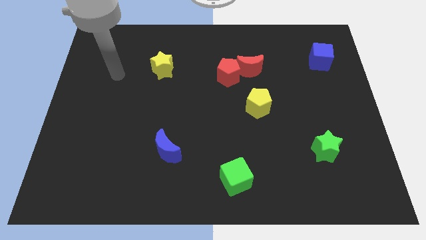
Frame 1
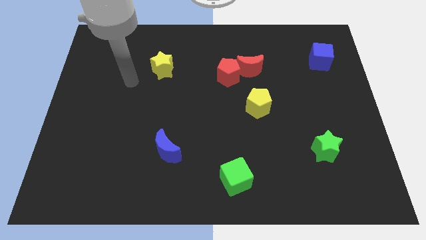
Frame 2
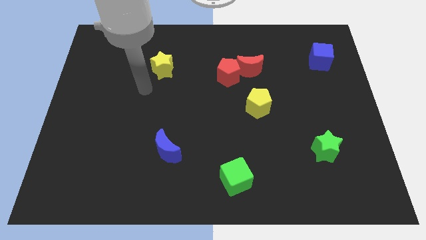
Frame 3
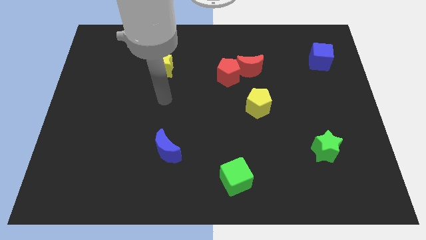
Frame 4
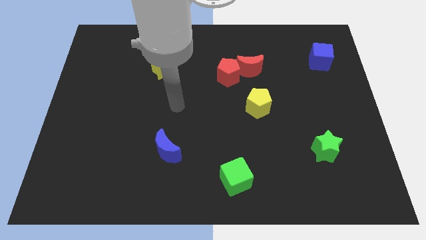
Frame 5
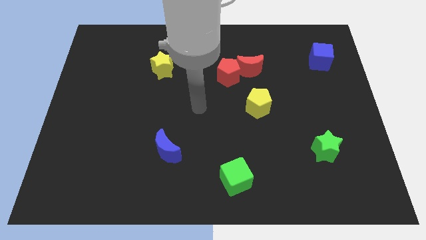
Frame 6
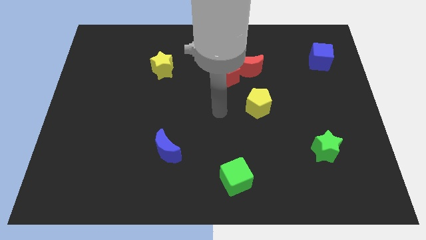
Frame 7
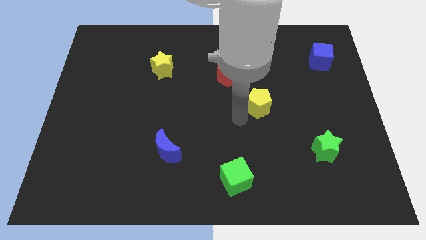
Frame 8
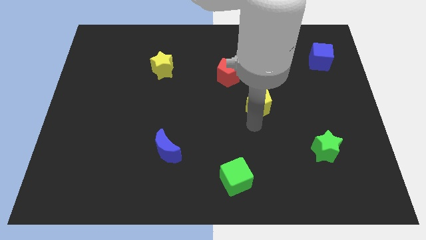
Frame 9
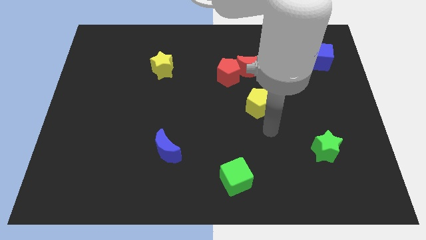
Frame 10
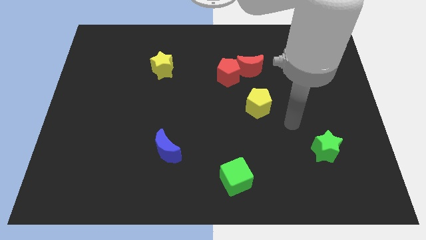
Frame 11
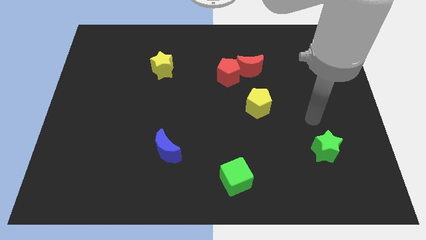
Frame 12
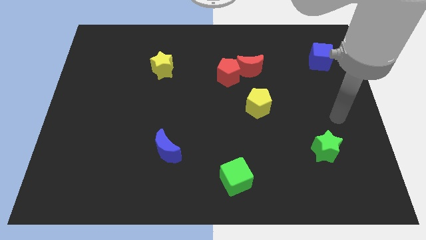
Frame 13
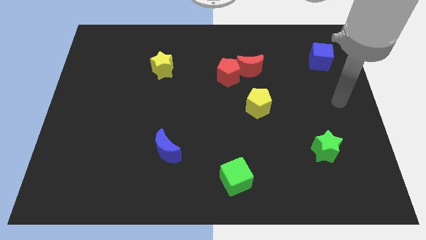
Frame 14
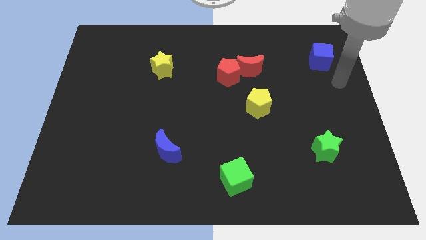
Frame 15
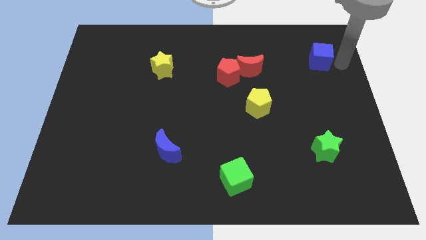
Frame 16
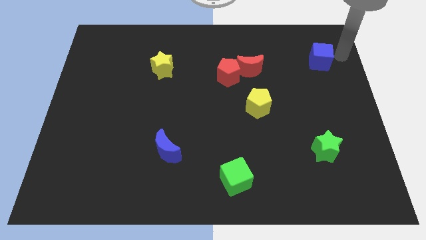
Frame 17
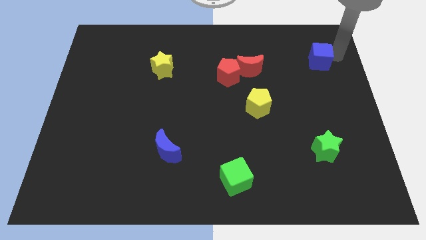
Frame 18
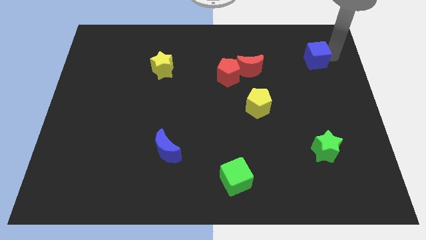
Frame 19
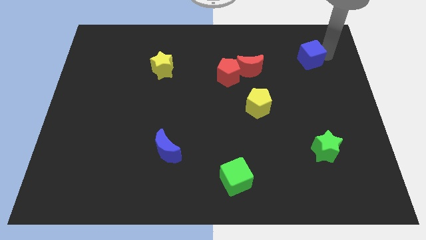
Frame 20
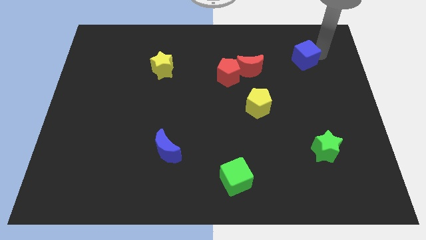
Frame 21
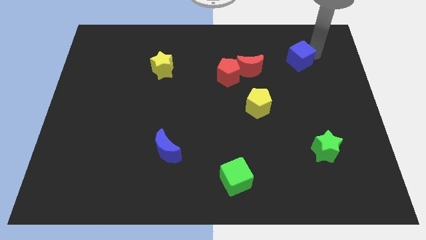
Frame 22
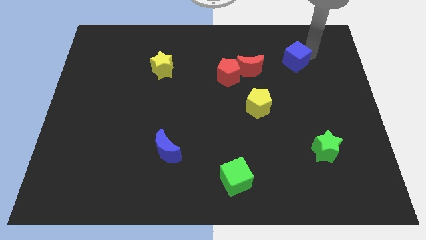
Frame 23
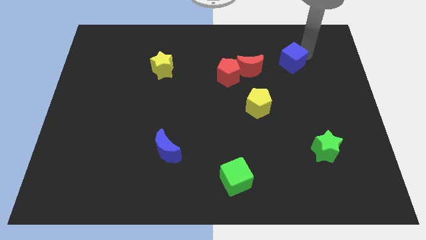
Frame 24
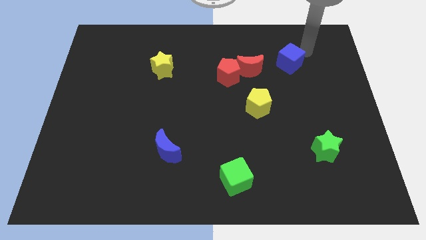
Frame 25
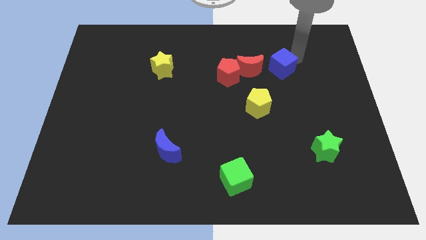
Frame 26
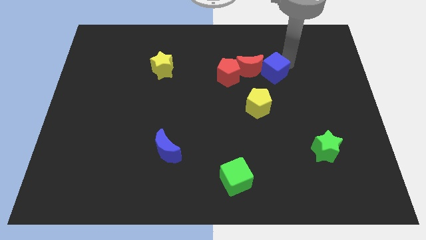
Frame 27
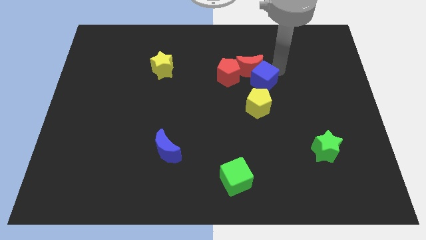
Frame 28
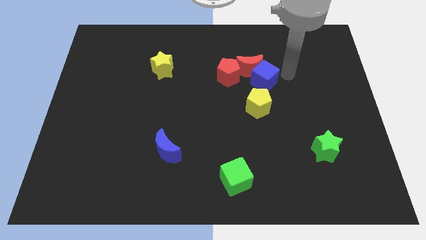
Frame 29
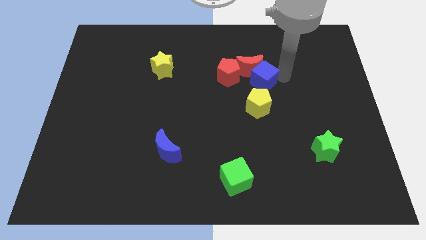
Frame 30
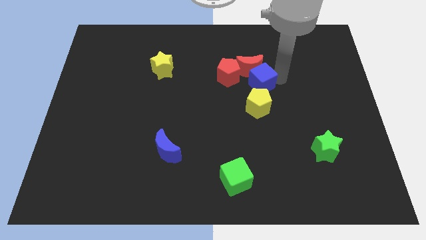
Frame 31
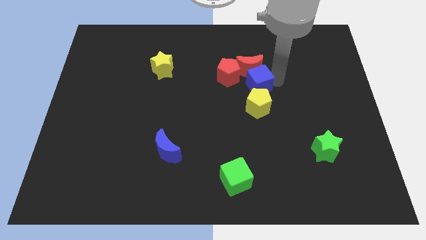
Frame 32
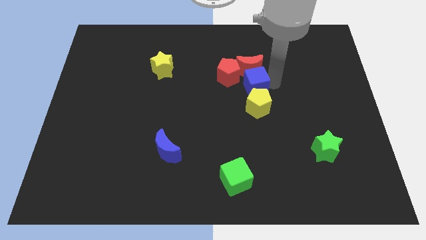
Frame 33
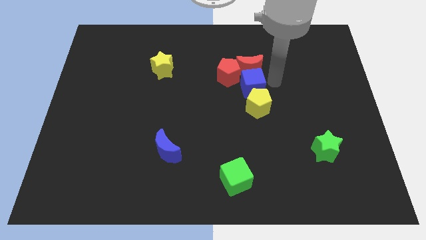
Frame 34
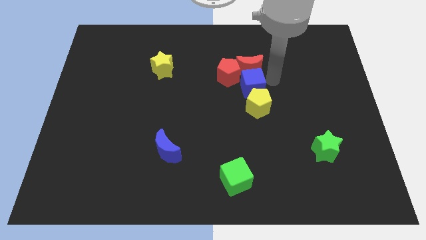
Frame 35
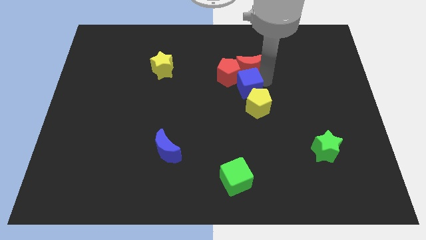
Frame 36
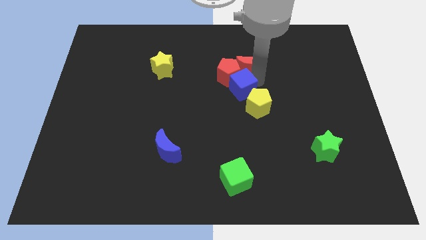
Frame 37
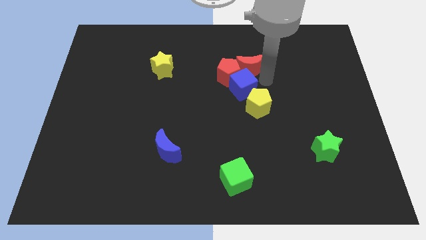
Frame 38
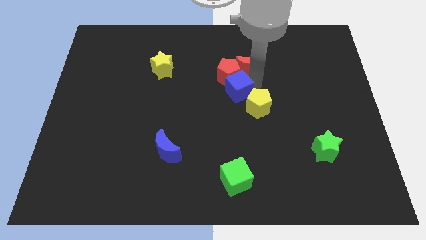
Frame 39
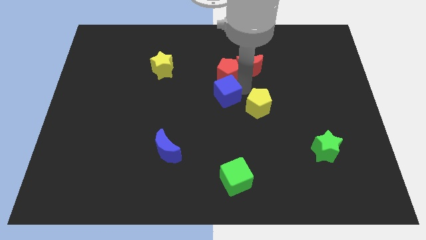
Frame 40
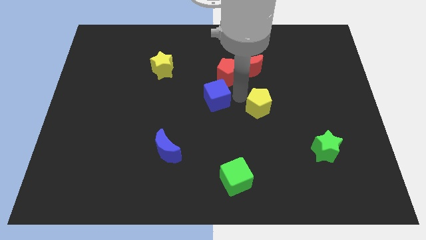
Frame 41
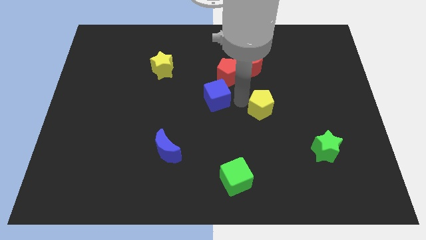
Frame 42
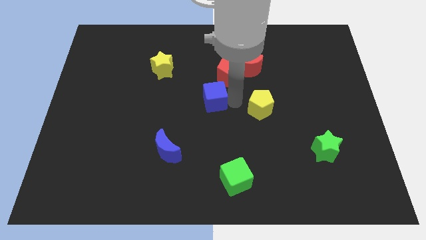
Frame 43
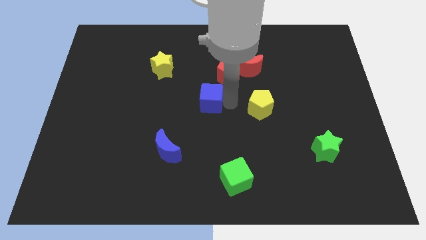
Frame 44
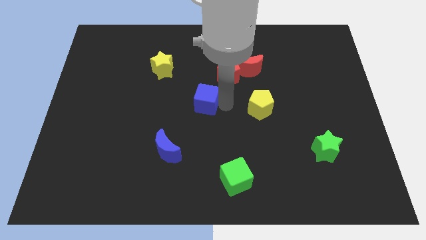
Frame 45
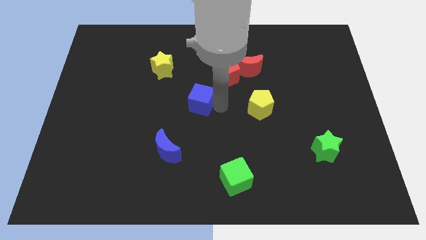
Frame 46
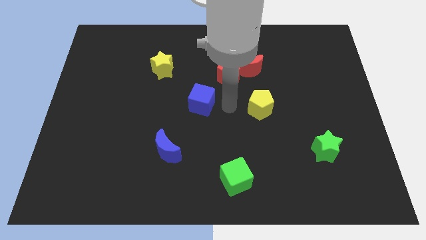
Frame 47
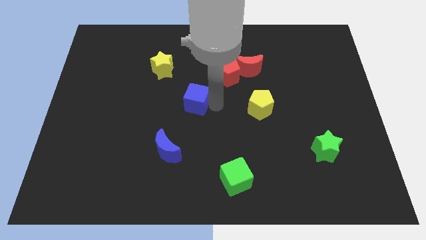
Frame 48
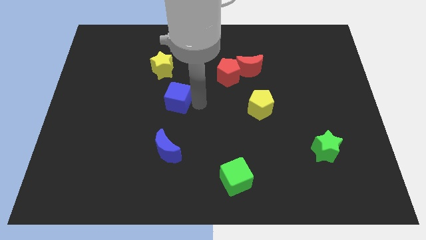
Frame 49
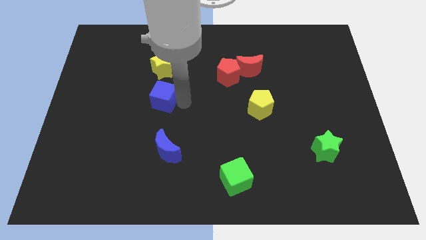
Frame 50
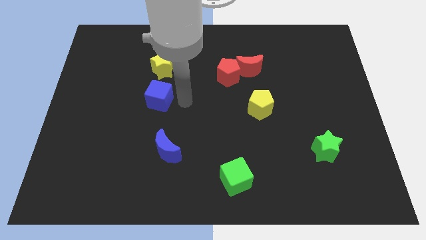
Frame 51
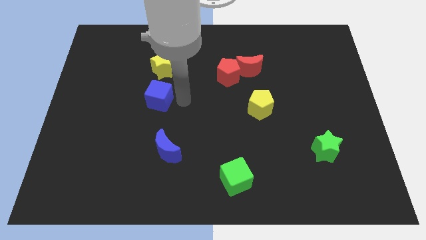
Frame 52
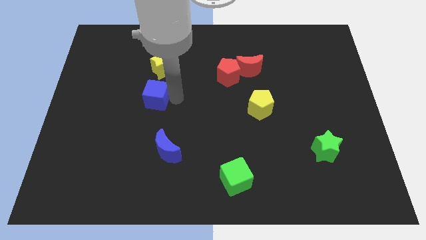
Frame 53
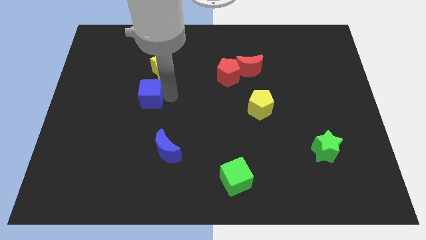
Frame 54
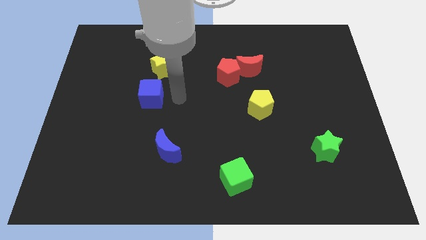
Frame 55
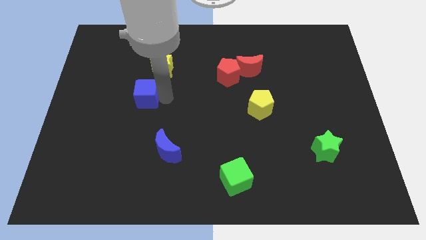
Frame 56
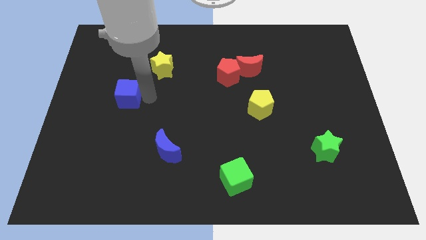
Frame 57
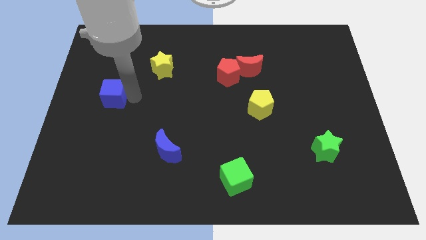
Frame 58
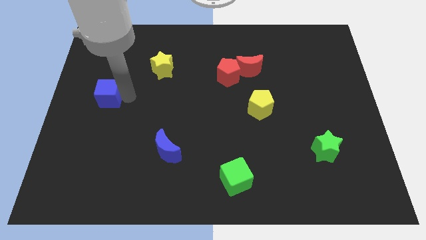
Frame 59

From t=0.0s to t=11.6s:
push the blue cube to the center left
